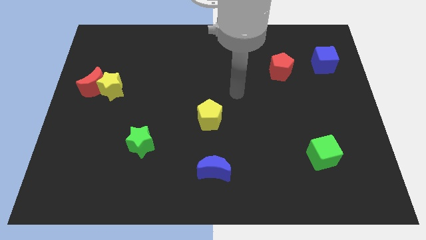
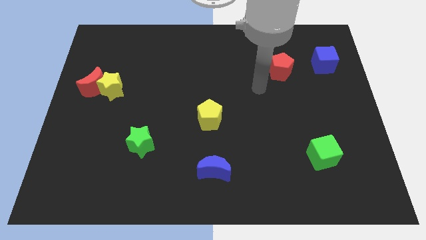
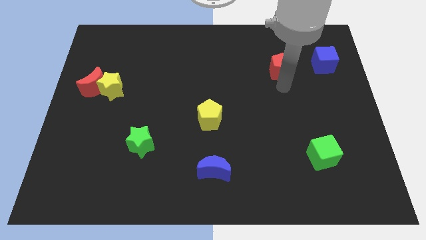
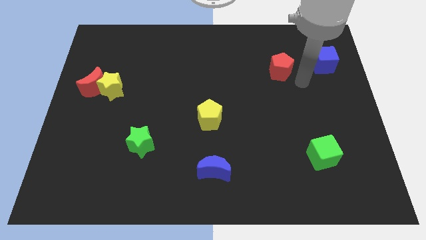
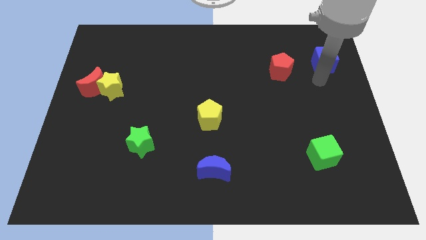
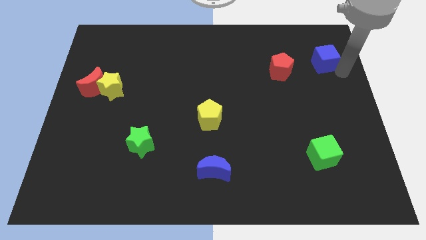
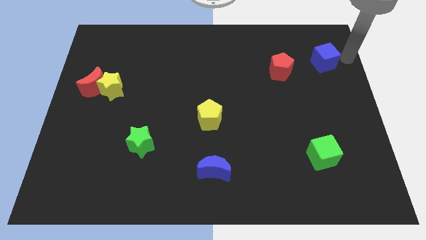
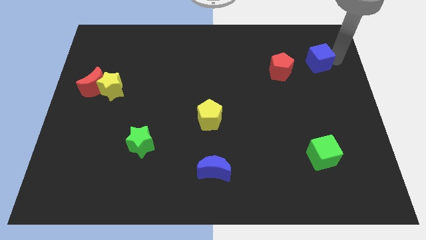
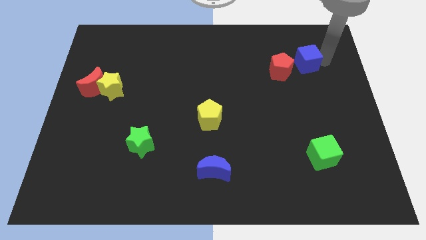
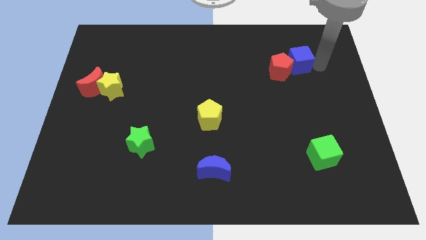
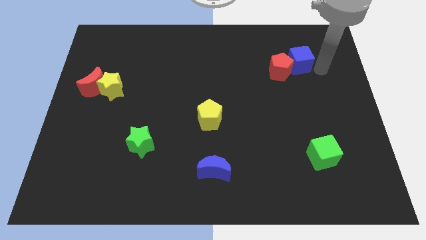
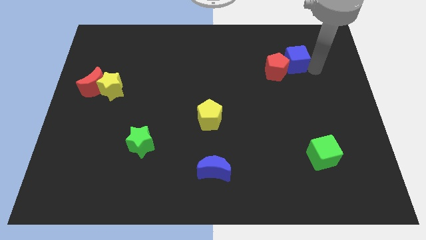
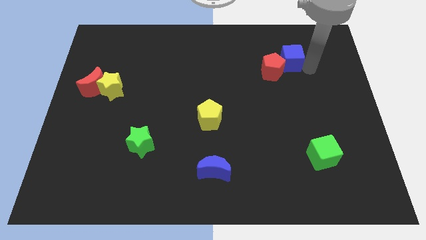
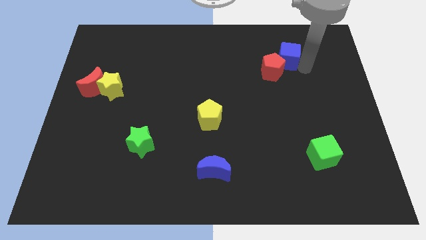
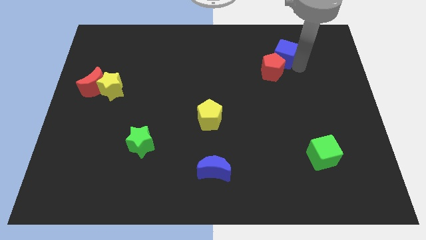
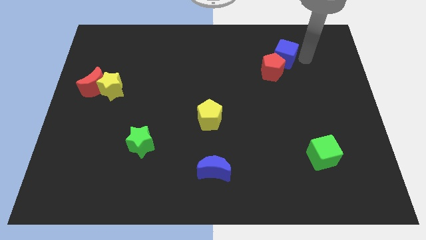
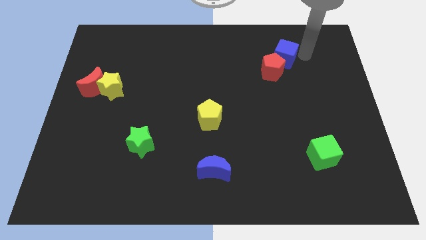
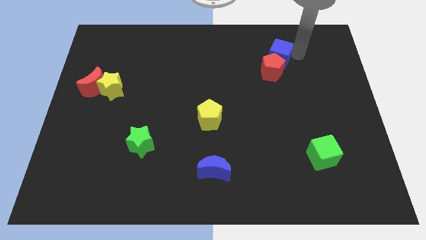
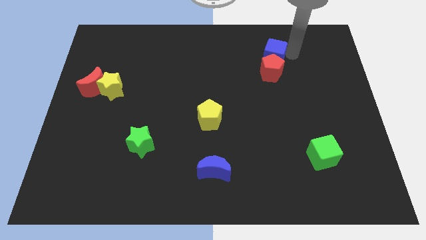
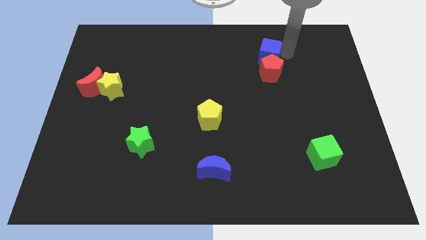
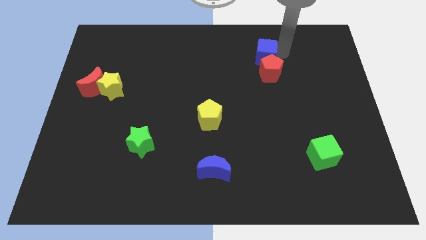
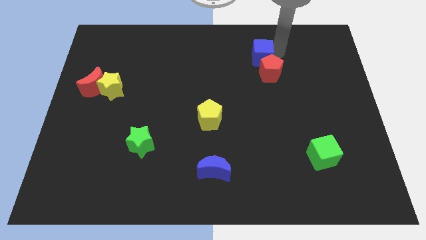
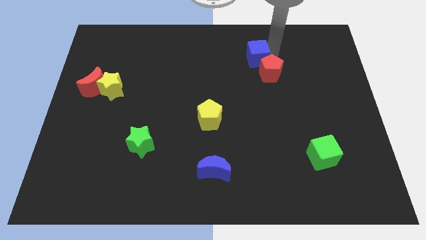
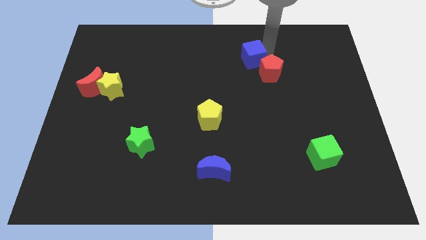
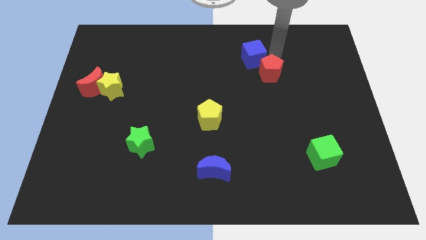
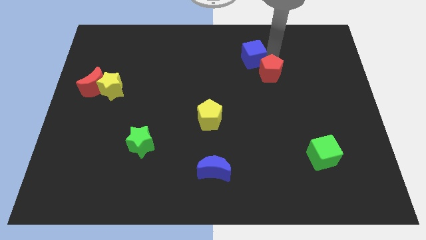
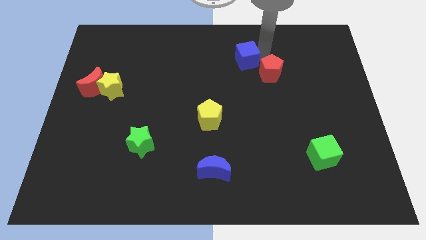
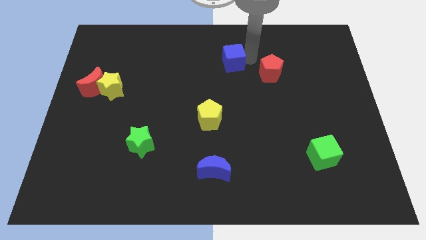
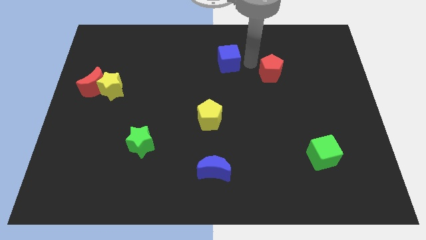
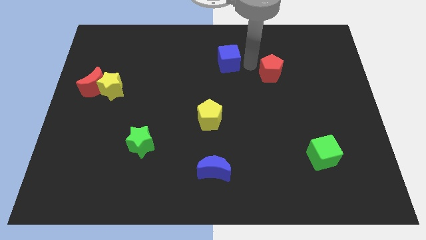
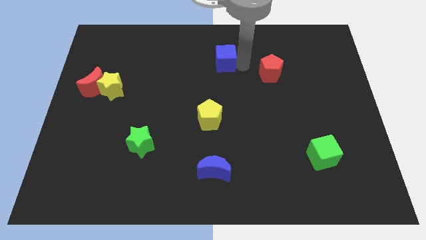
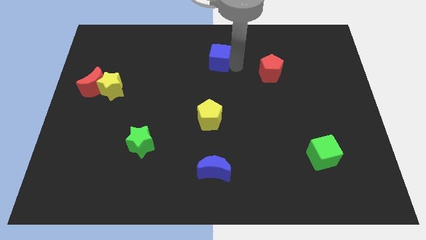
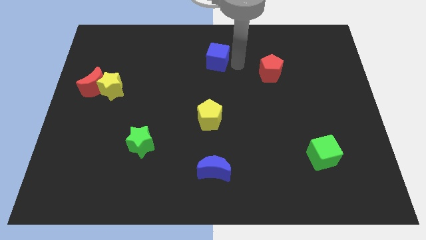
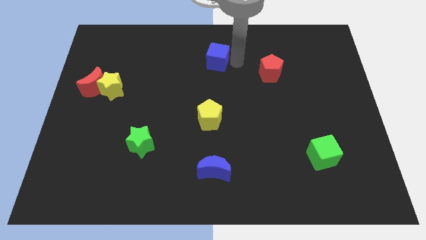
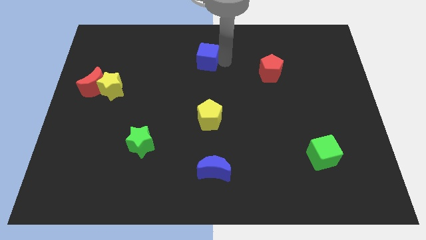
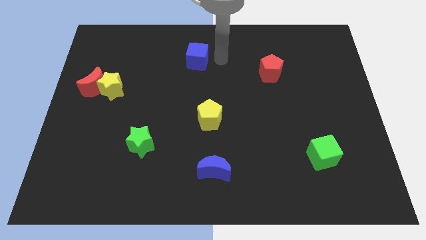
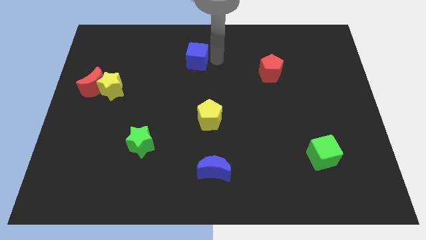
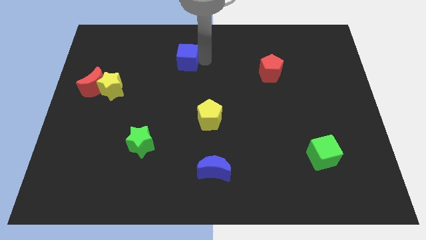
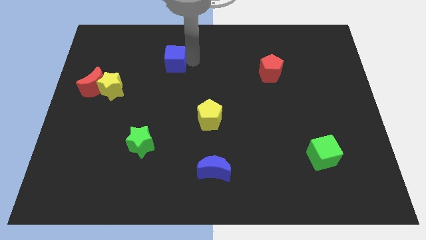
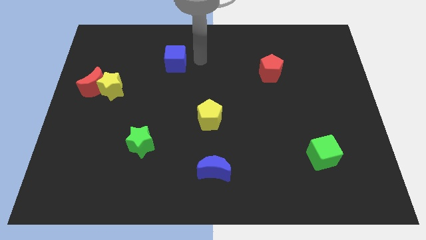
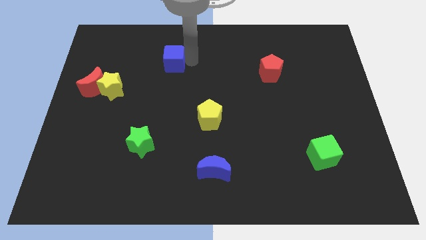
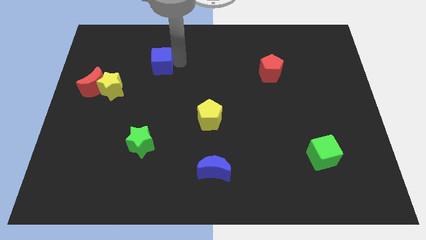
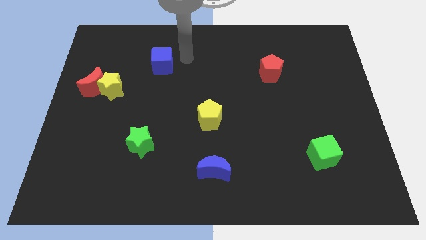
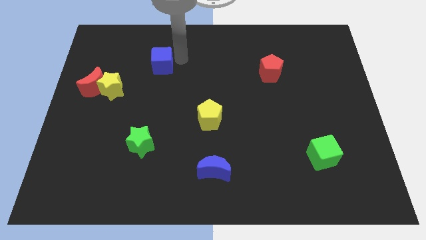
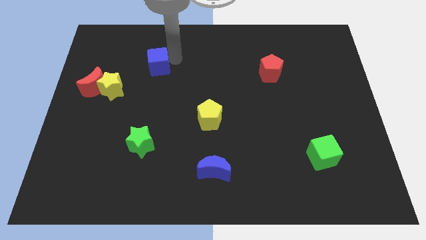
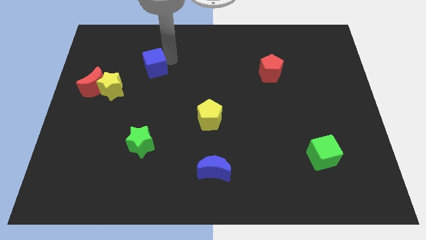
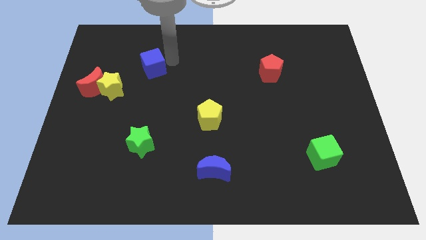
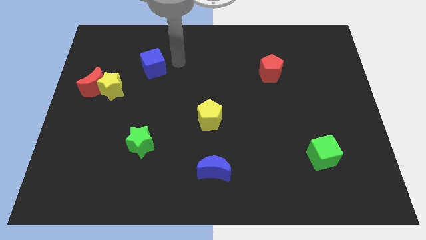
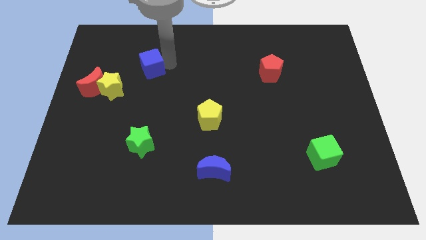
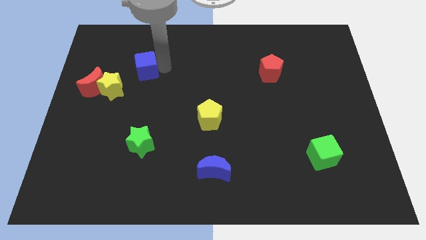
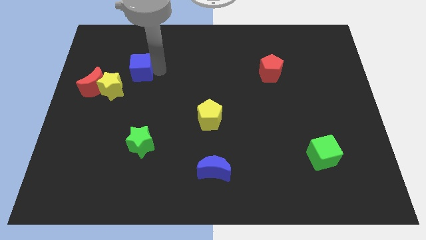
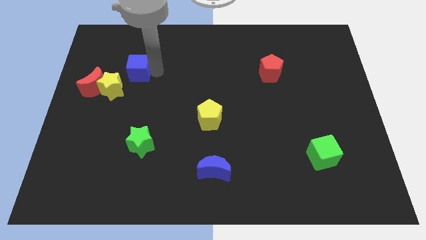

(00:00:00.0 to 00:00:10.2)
move the blue cube to the top right of the red moon

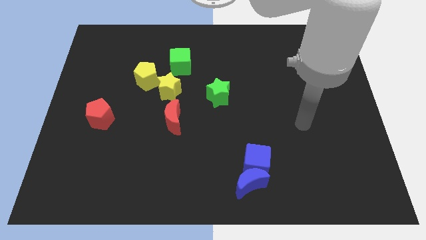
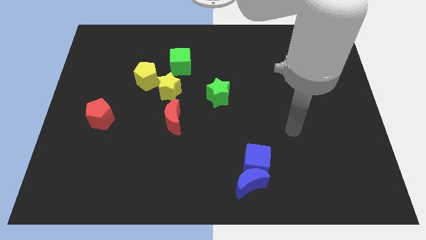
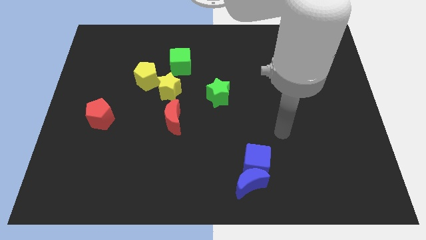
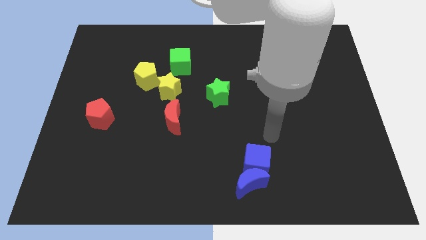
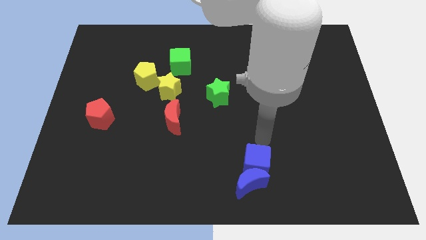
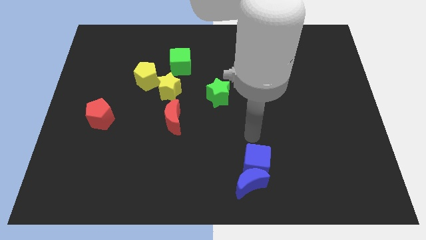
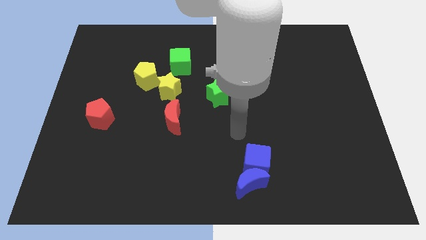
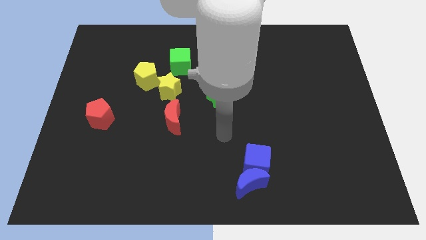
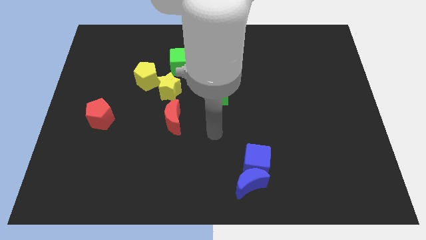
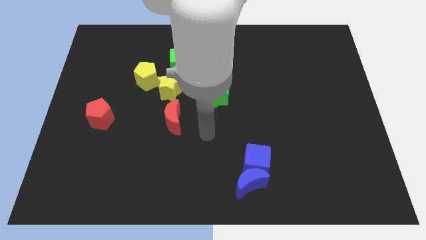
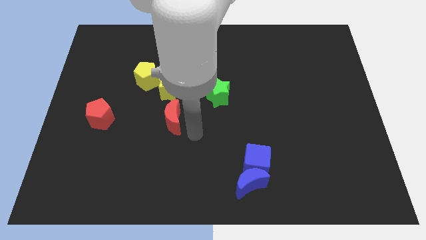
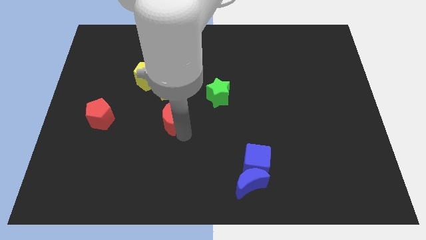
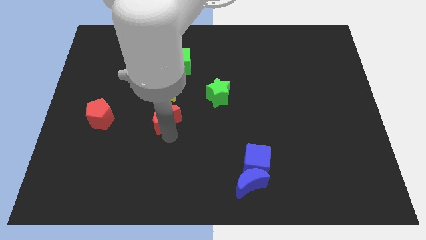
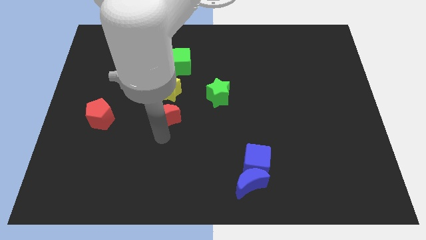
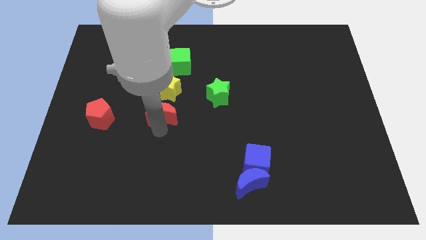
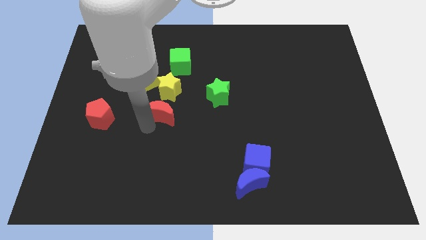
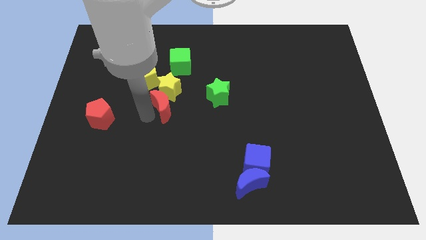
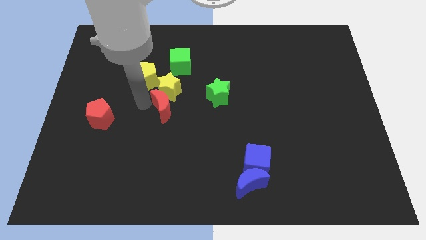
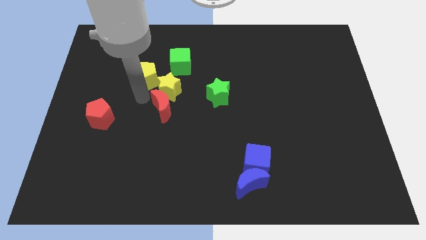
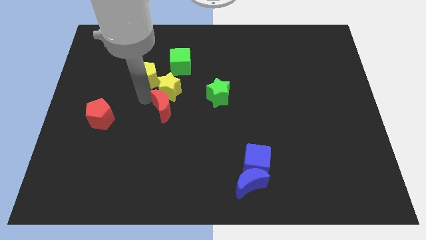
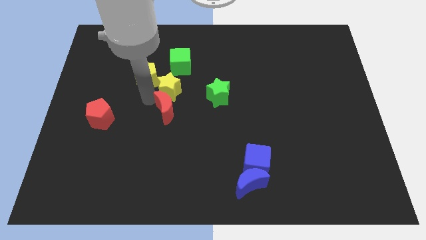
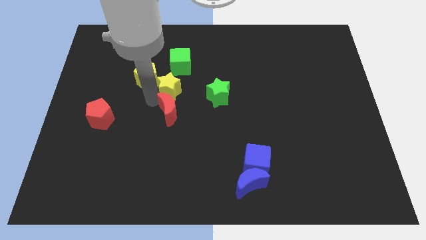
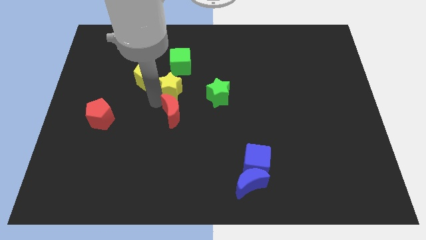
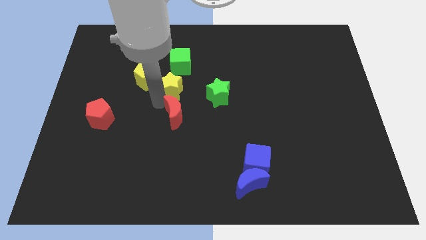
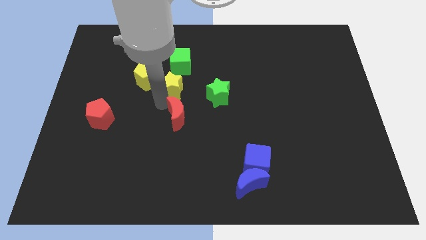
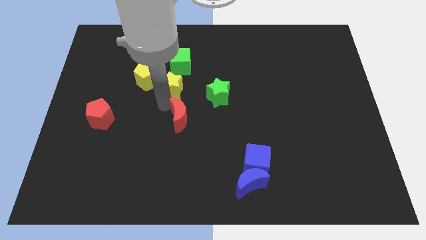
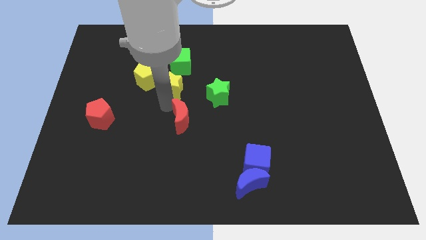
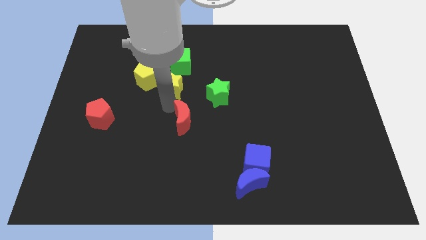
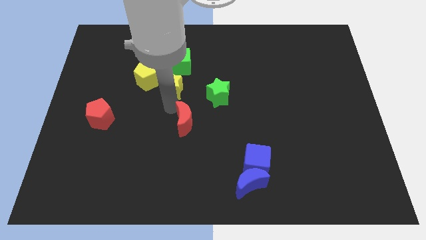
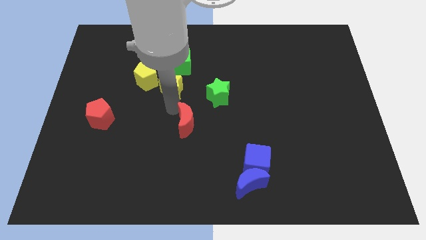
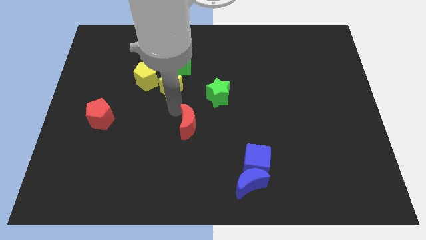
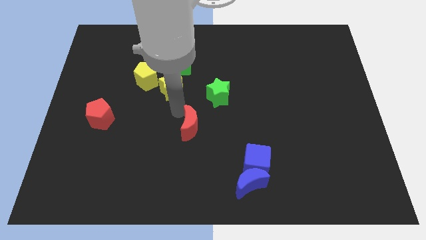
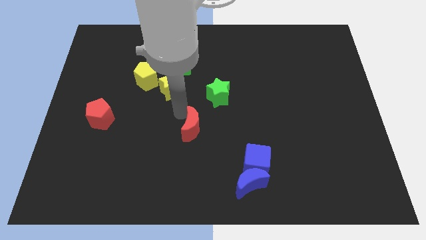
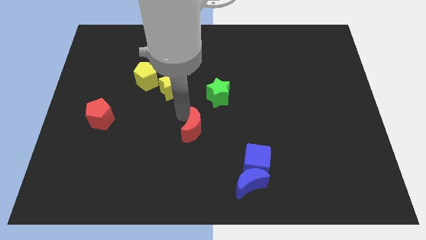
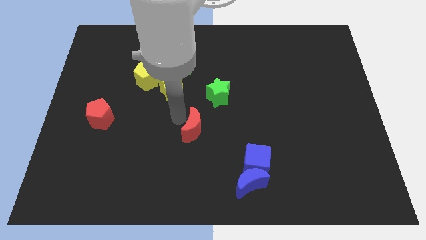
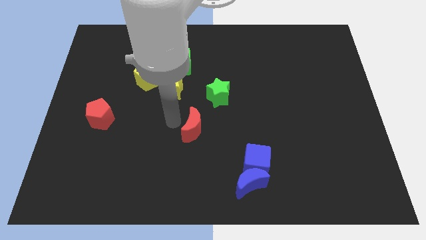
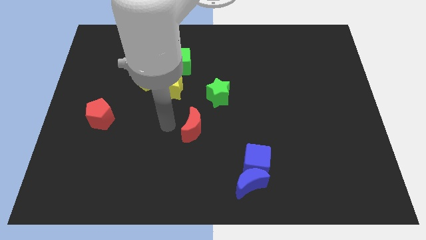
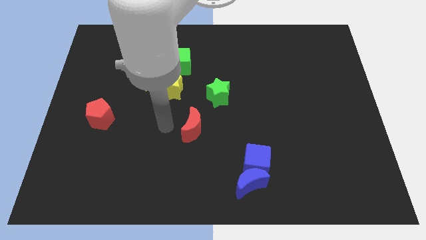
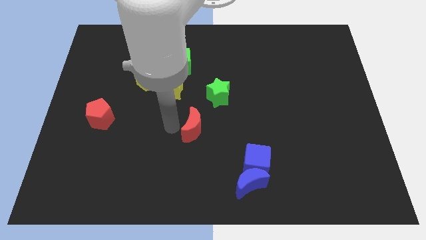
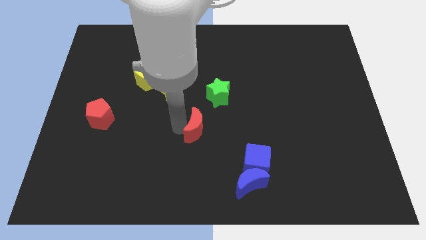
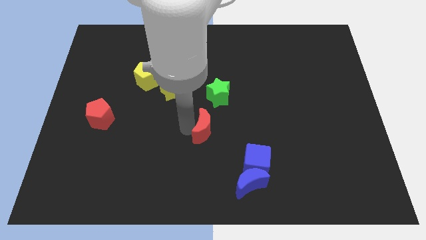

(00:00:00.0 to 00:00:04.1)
move the red moon to the bottom side of the green star
